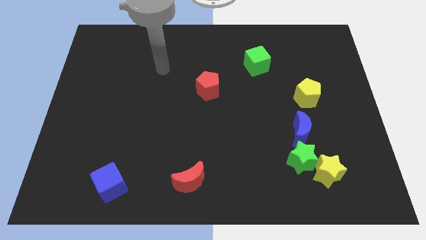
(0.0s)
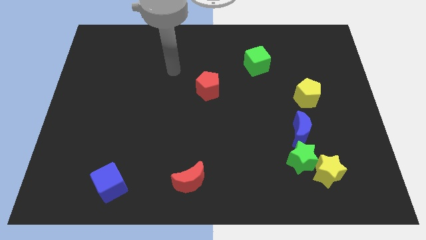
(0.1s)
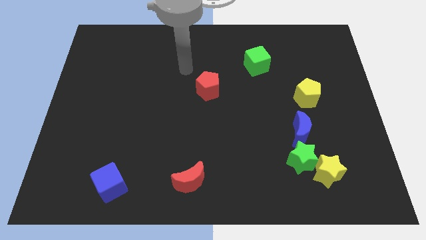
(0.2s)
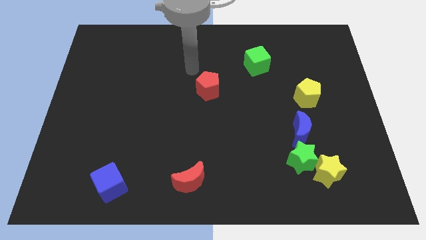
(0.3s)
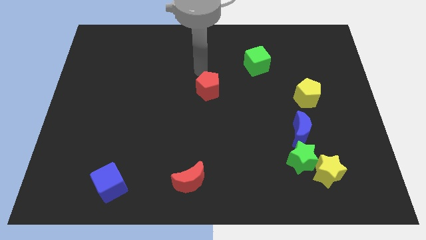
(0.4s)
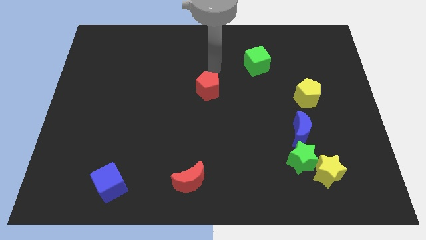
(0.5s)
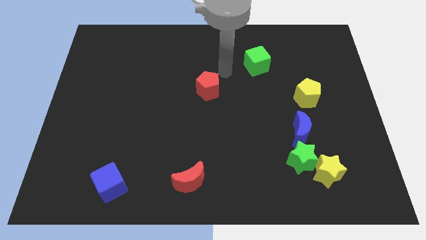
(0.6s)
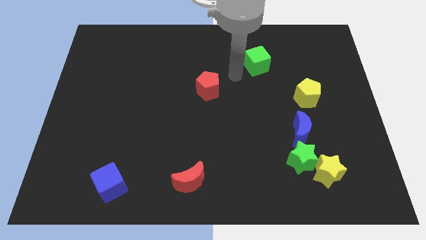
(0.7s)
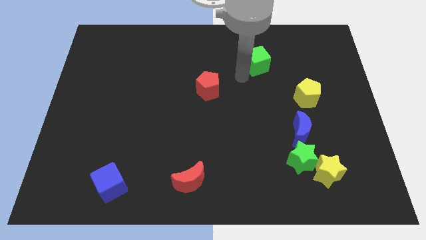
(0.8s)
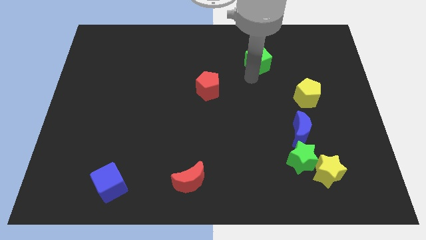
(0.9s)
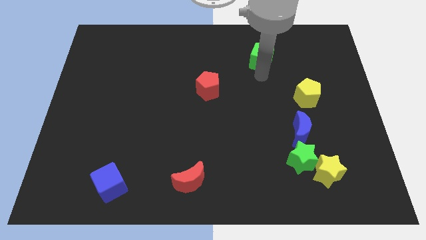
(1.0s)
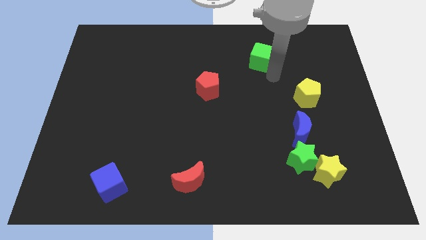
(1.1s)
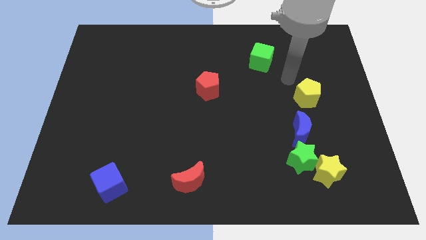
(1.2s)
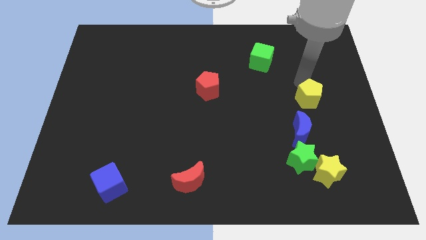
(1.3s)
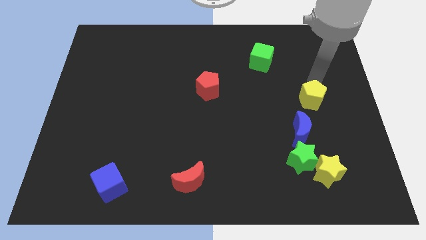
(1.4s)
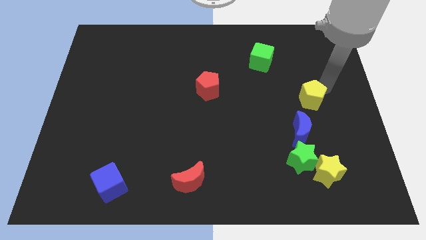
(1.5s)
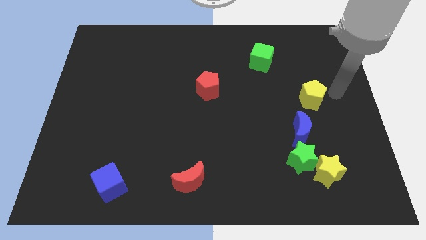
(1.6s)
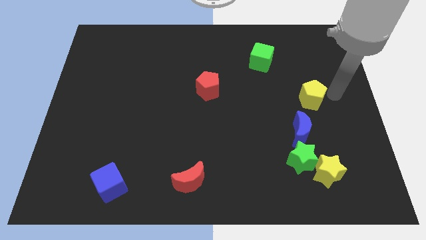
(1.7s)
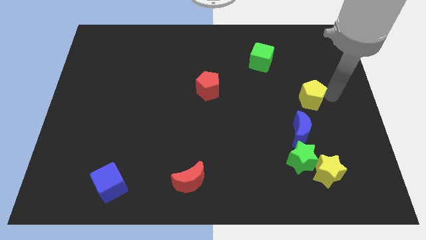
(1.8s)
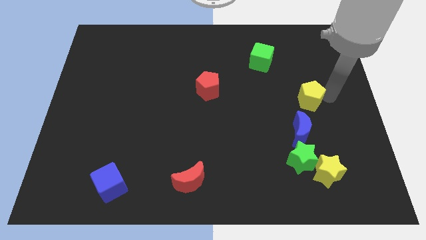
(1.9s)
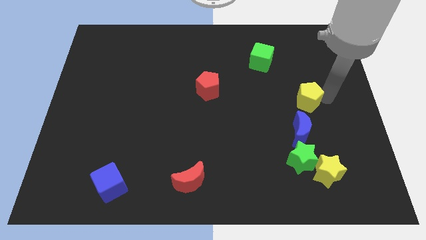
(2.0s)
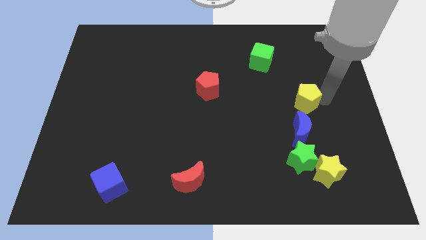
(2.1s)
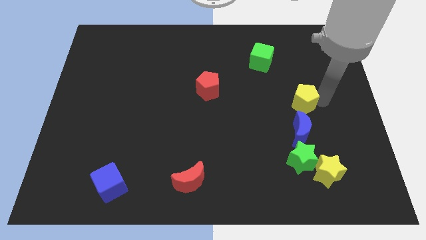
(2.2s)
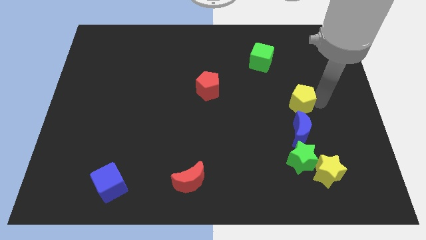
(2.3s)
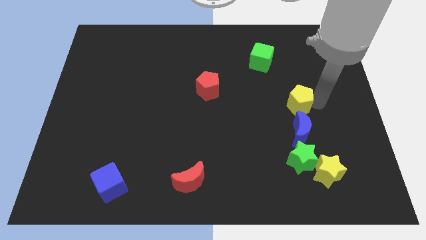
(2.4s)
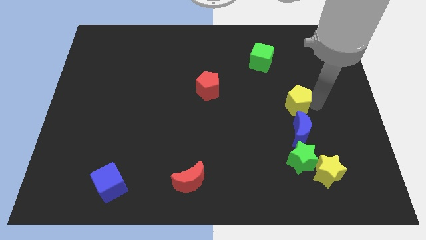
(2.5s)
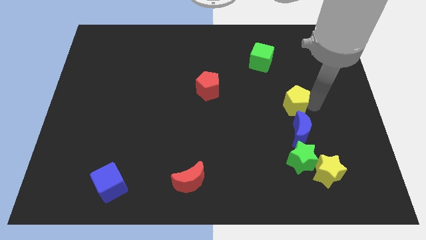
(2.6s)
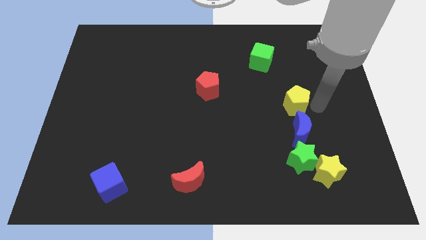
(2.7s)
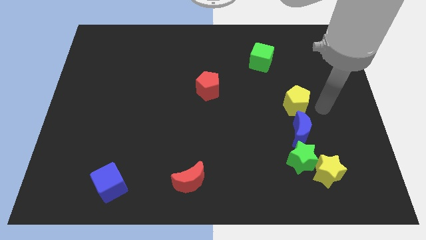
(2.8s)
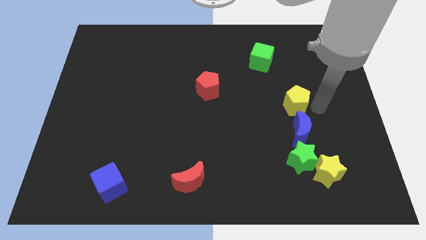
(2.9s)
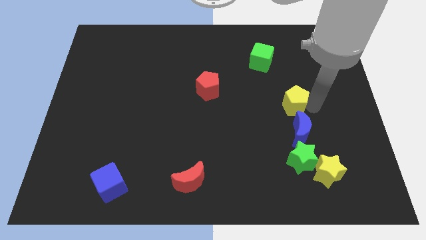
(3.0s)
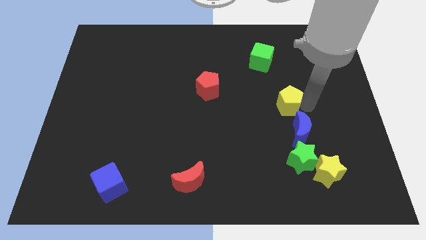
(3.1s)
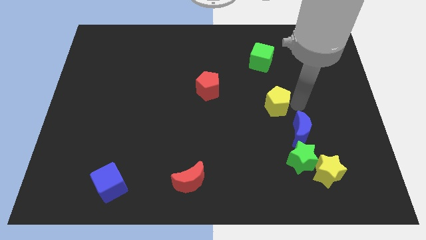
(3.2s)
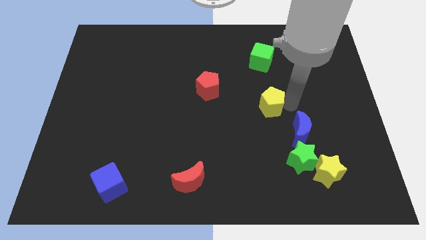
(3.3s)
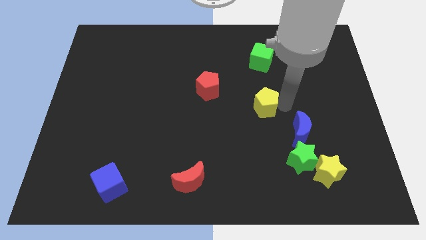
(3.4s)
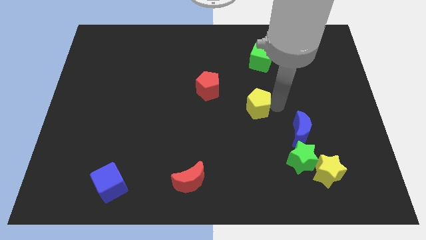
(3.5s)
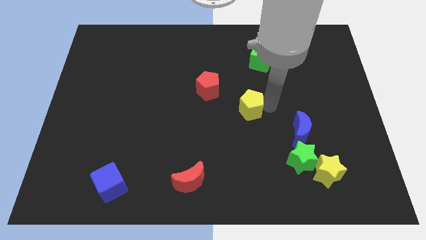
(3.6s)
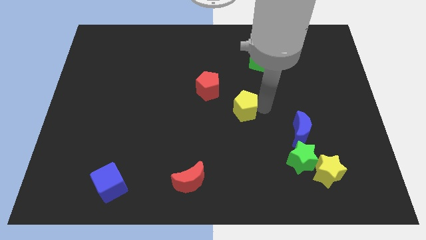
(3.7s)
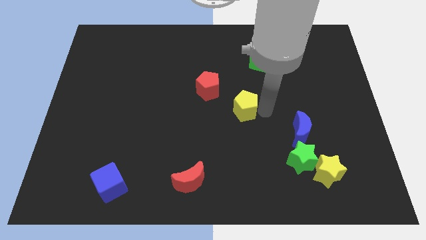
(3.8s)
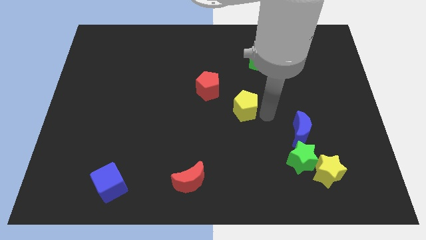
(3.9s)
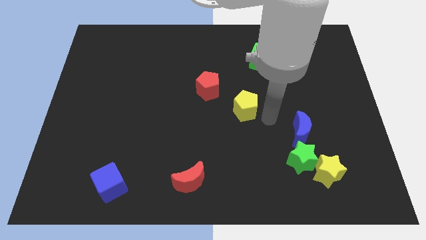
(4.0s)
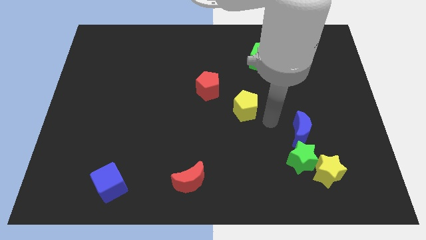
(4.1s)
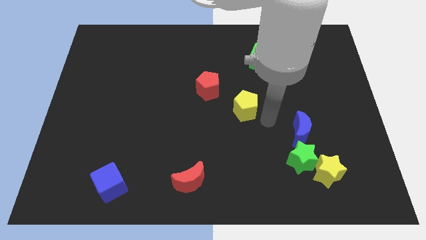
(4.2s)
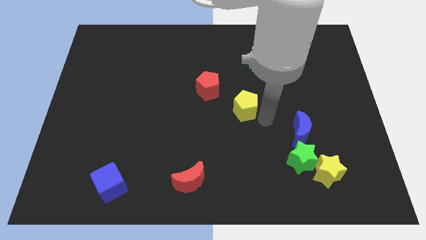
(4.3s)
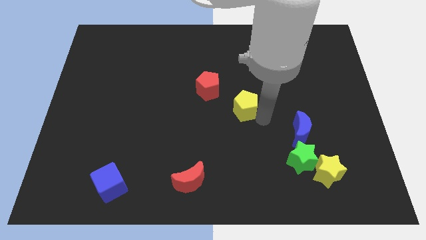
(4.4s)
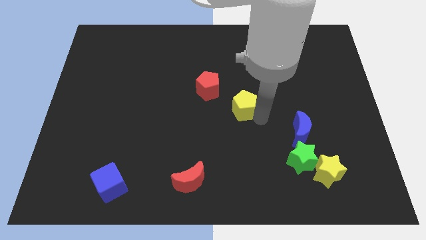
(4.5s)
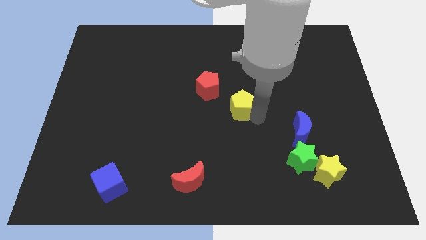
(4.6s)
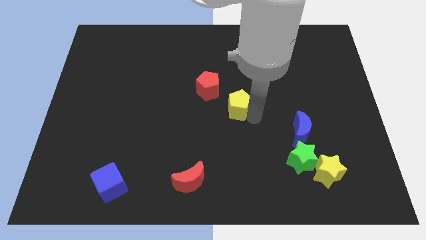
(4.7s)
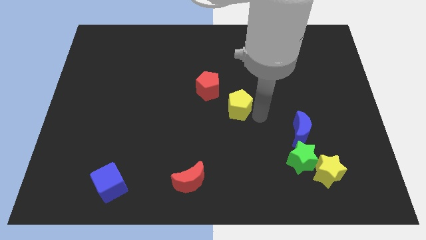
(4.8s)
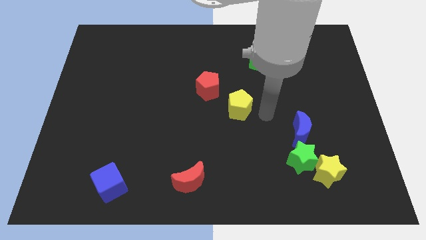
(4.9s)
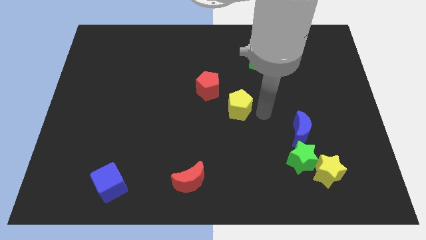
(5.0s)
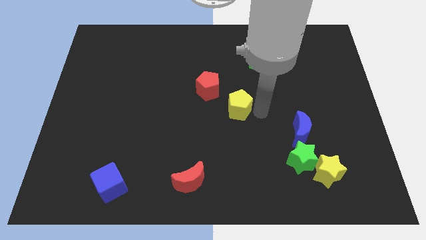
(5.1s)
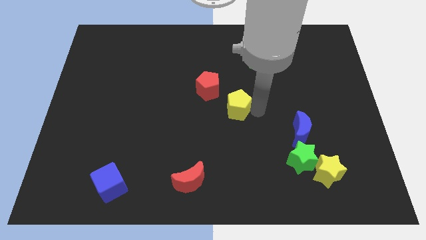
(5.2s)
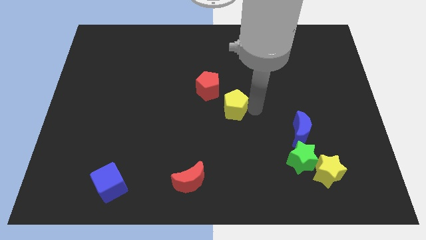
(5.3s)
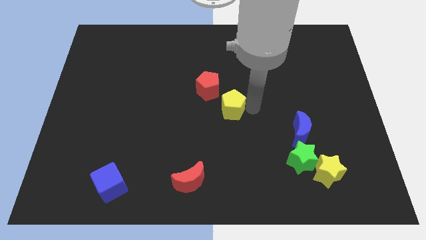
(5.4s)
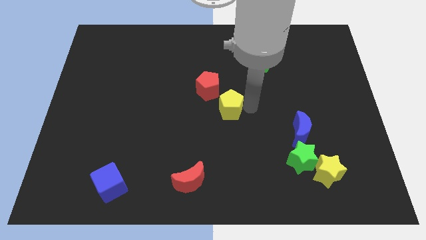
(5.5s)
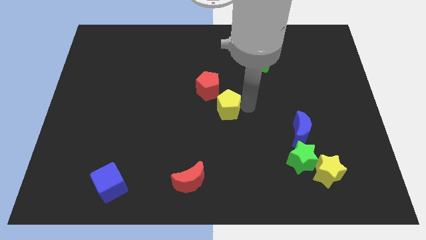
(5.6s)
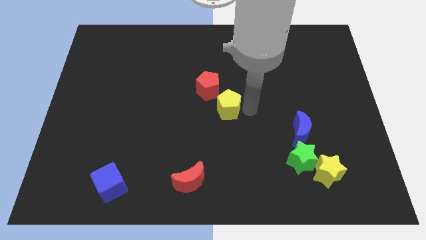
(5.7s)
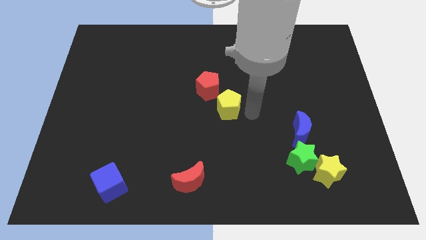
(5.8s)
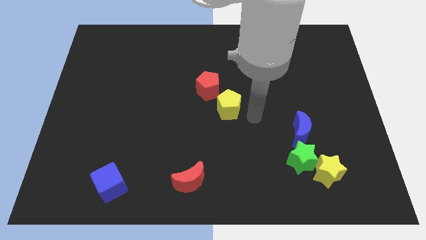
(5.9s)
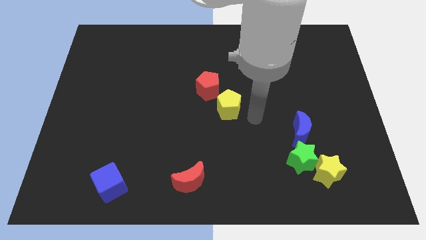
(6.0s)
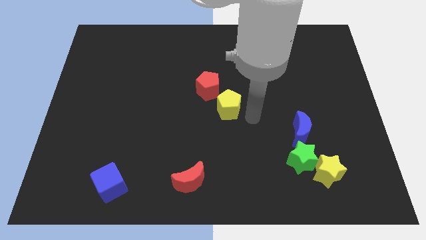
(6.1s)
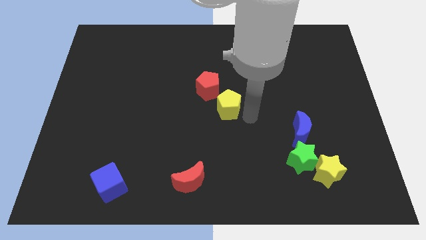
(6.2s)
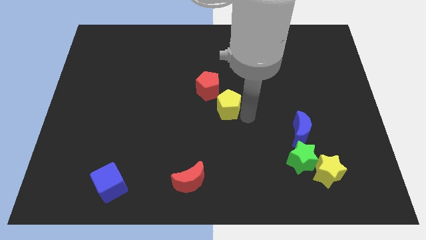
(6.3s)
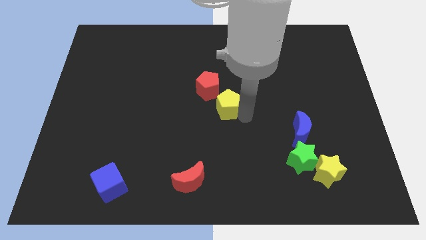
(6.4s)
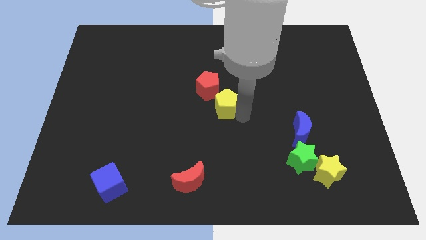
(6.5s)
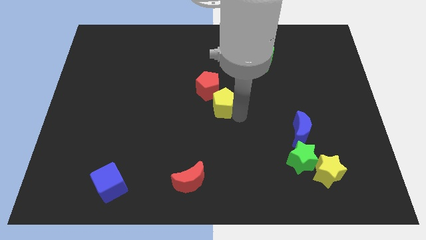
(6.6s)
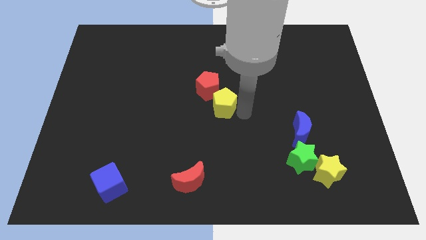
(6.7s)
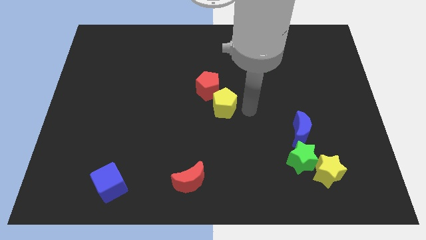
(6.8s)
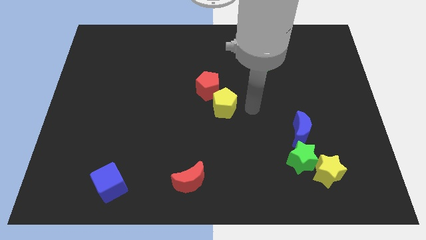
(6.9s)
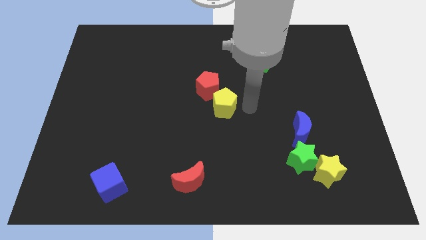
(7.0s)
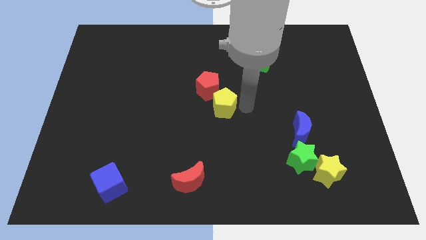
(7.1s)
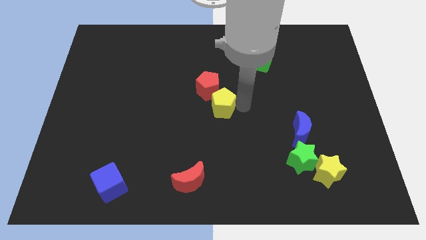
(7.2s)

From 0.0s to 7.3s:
push the yellow pentagon left

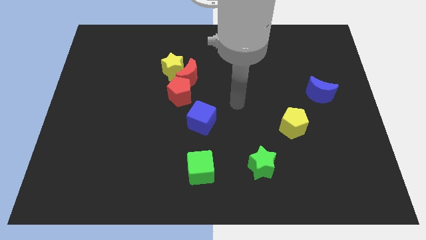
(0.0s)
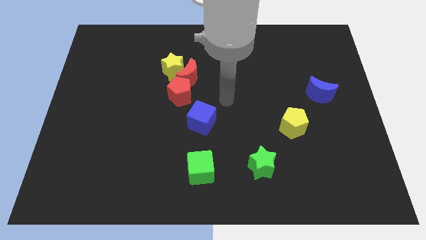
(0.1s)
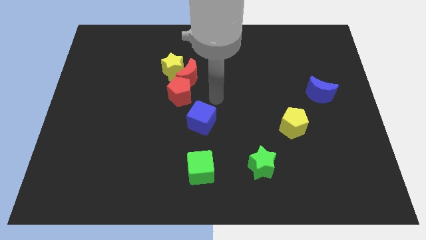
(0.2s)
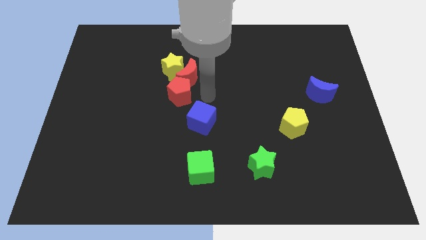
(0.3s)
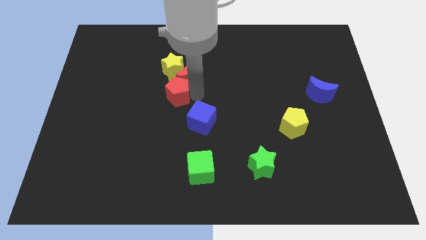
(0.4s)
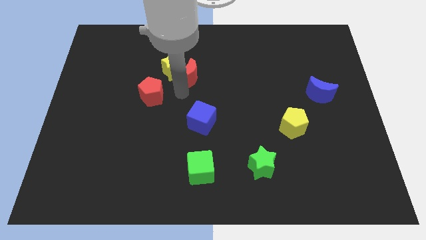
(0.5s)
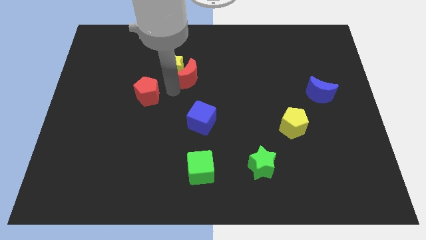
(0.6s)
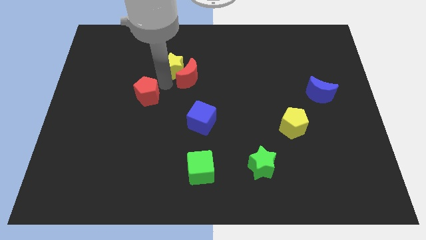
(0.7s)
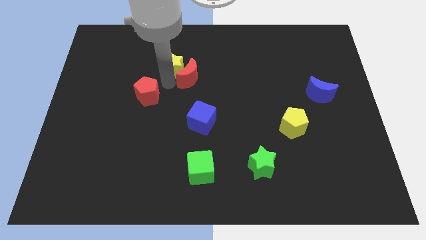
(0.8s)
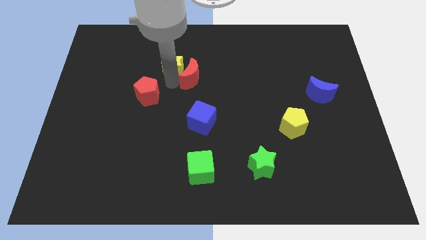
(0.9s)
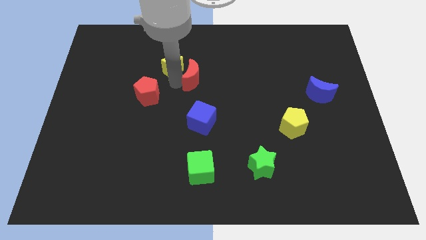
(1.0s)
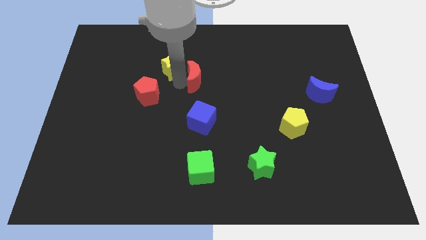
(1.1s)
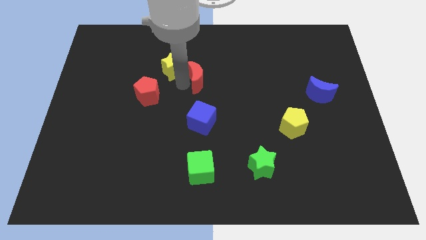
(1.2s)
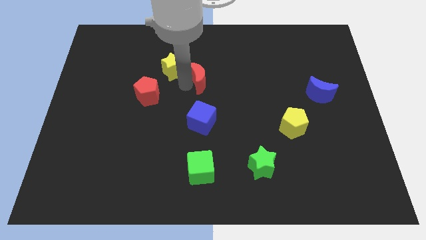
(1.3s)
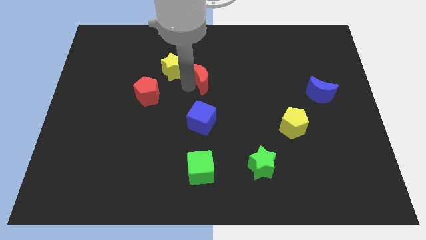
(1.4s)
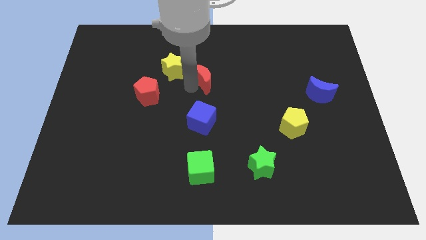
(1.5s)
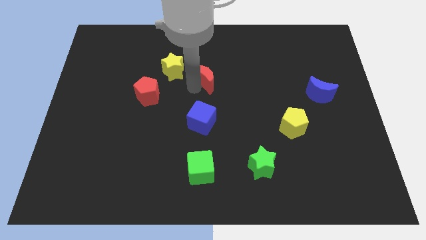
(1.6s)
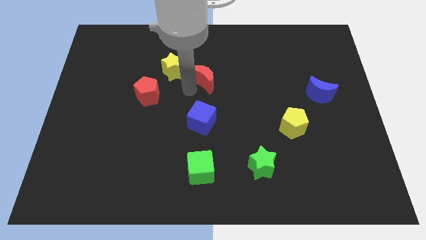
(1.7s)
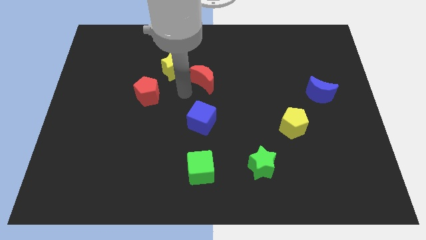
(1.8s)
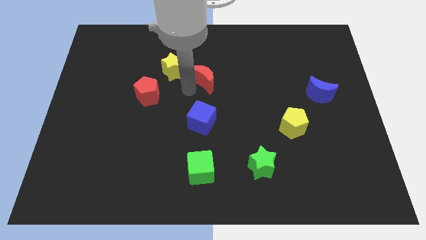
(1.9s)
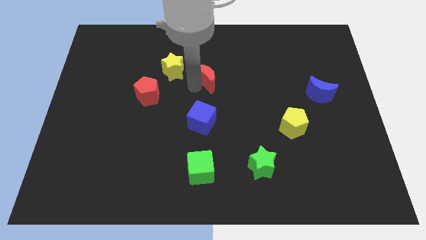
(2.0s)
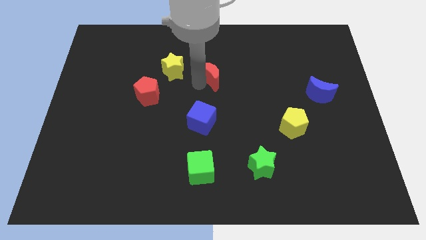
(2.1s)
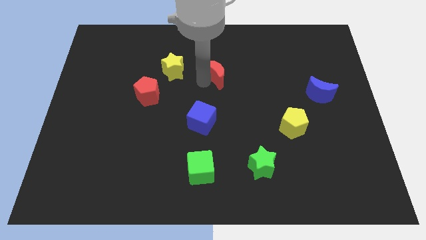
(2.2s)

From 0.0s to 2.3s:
slightly push the red moon to the right
